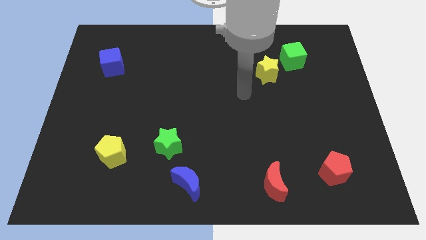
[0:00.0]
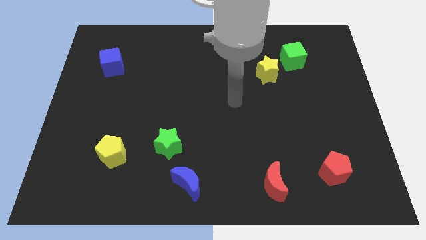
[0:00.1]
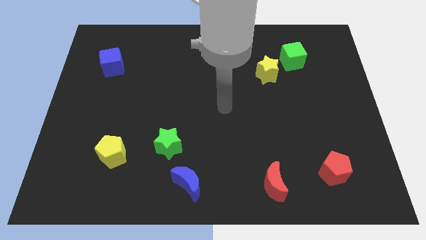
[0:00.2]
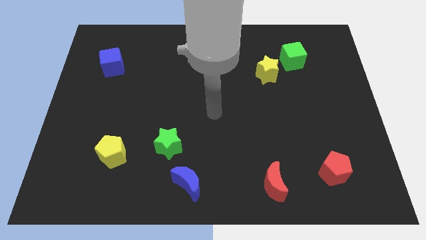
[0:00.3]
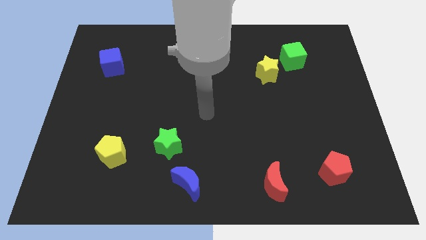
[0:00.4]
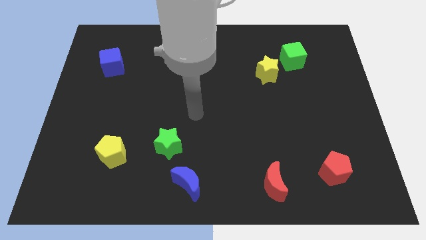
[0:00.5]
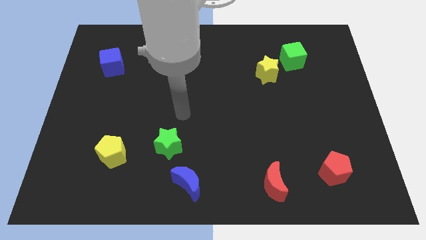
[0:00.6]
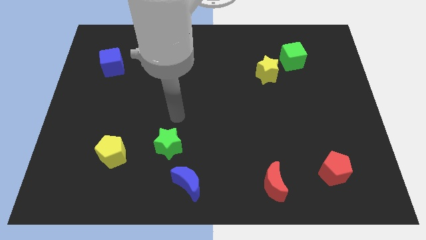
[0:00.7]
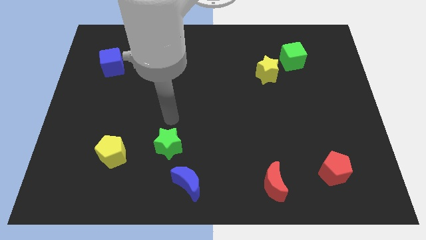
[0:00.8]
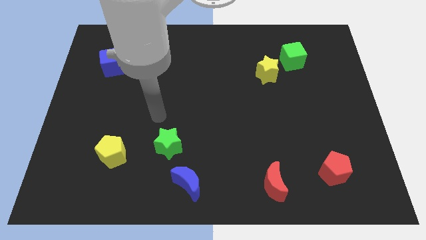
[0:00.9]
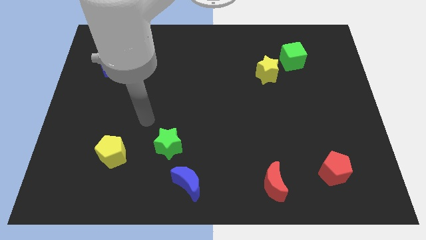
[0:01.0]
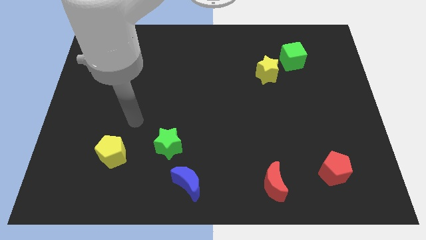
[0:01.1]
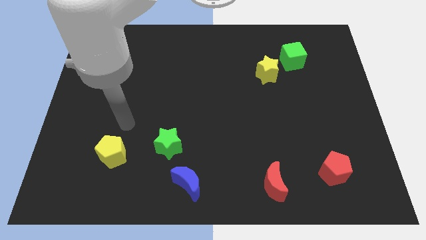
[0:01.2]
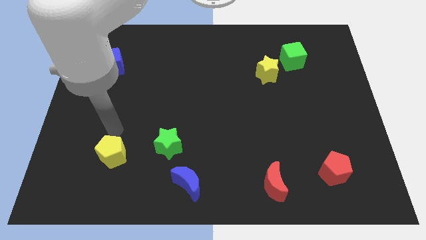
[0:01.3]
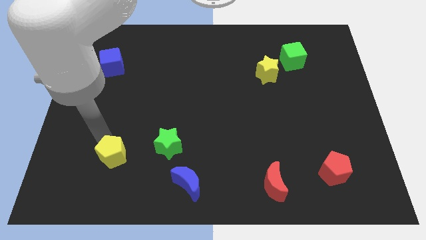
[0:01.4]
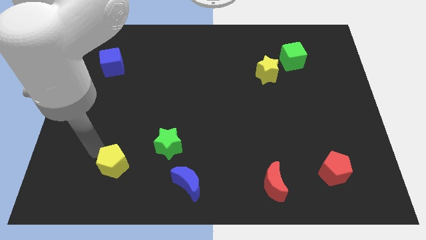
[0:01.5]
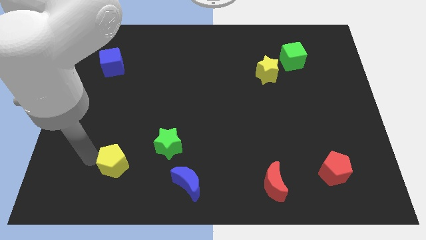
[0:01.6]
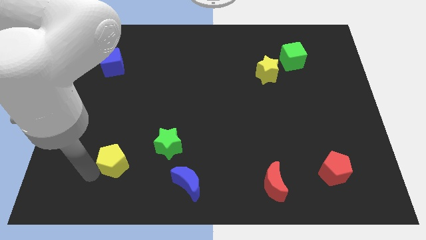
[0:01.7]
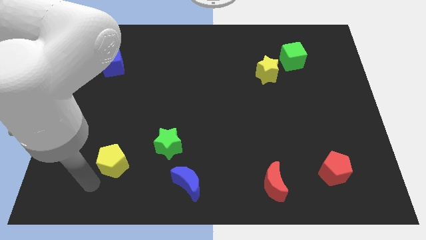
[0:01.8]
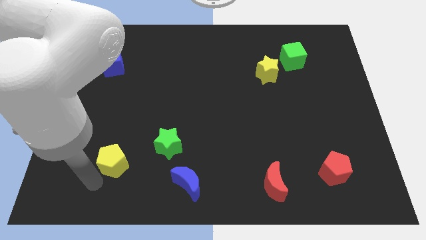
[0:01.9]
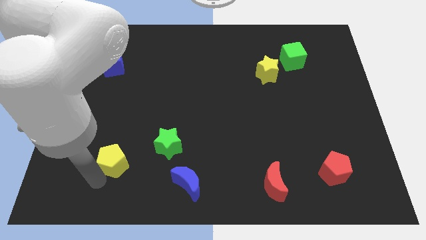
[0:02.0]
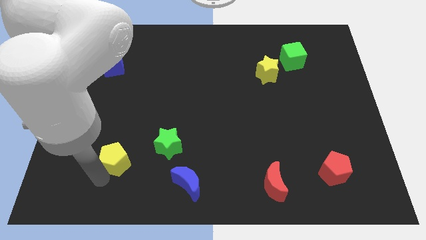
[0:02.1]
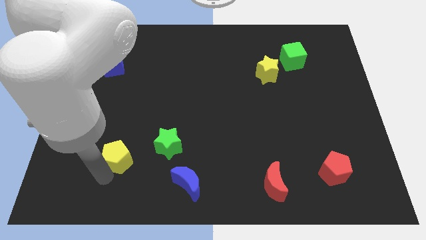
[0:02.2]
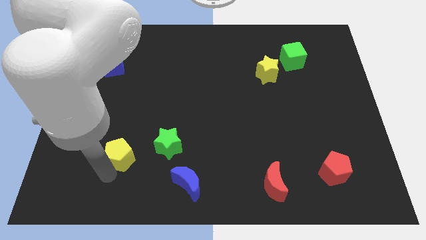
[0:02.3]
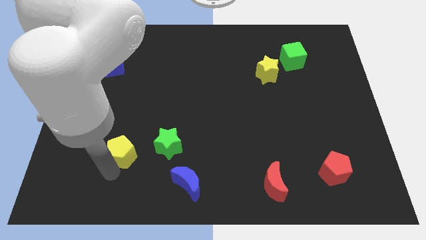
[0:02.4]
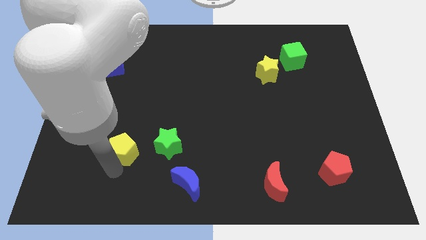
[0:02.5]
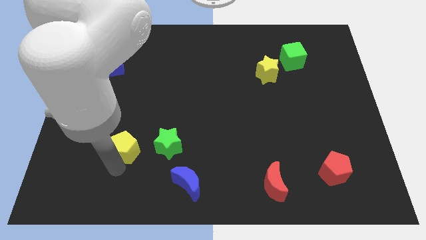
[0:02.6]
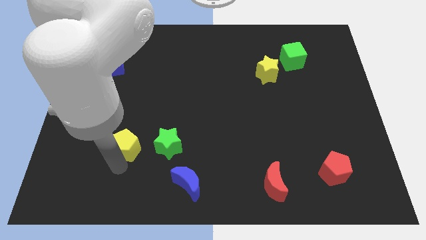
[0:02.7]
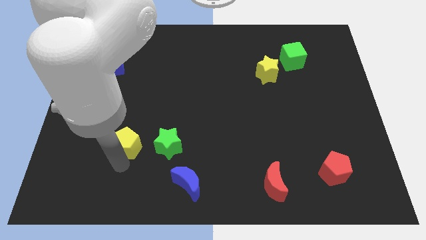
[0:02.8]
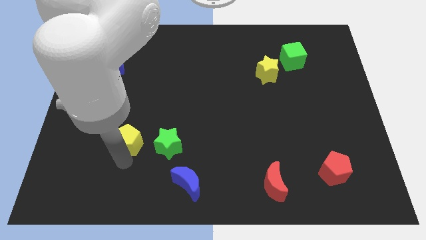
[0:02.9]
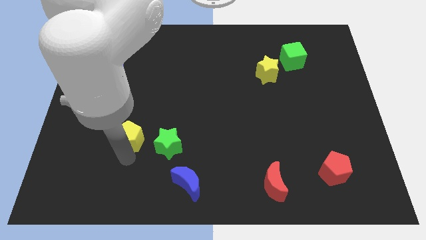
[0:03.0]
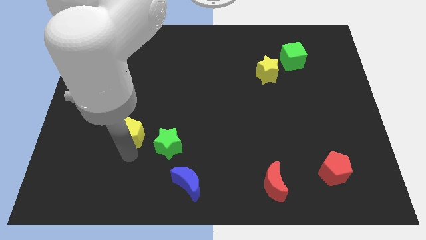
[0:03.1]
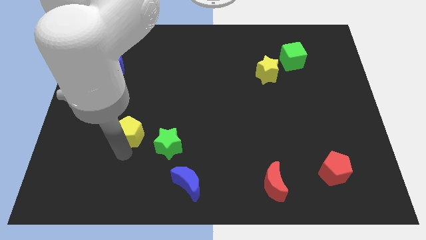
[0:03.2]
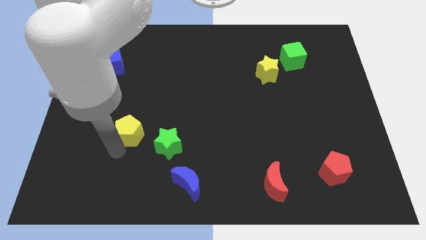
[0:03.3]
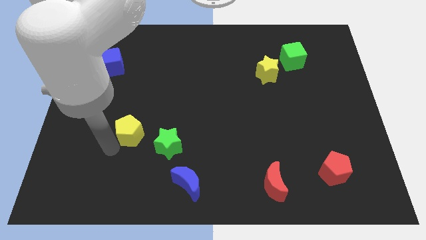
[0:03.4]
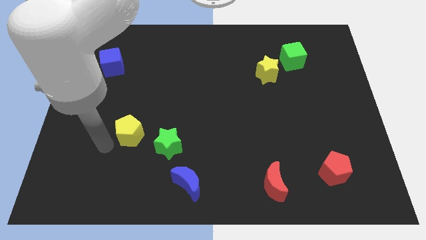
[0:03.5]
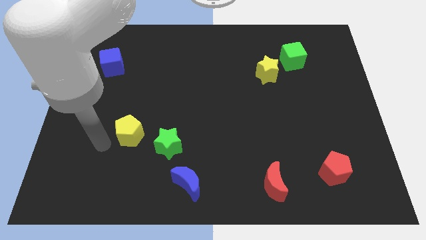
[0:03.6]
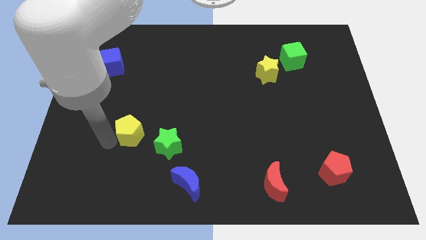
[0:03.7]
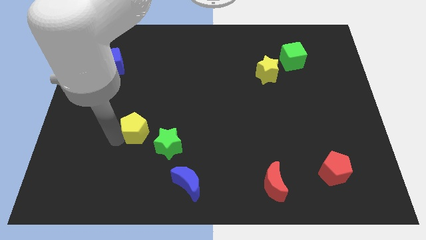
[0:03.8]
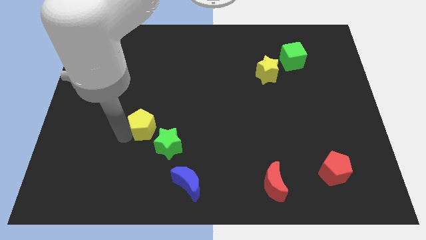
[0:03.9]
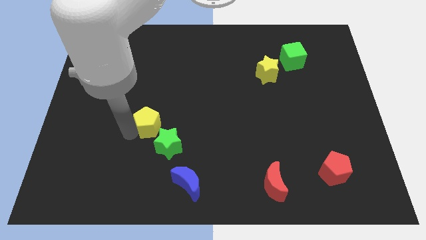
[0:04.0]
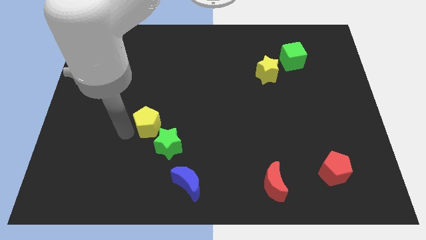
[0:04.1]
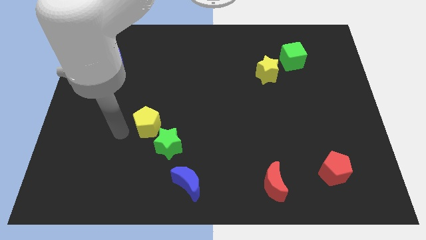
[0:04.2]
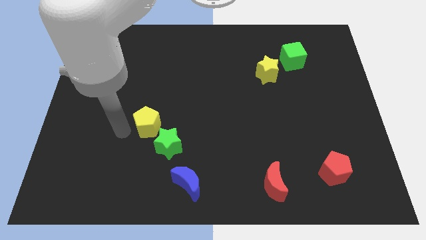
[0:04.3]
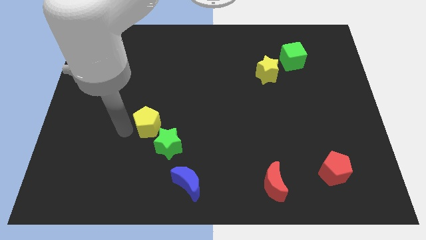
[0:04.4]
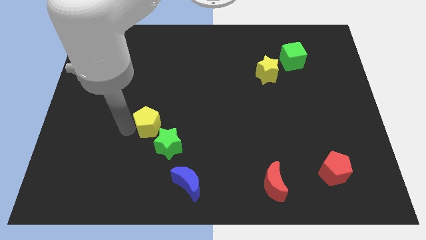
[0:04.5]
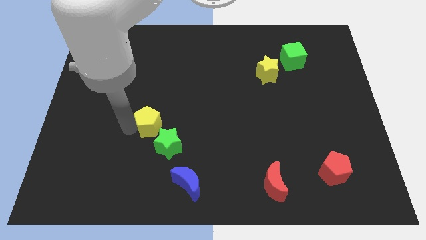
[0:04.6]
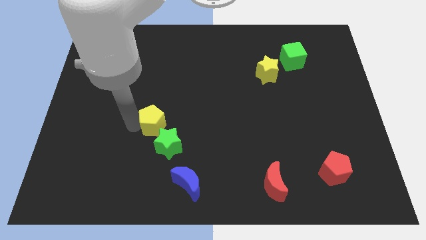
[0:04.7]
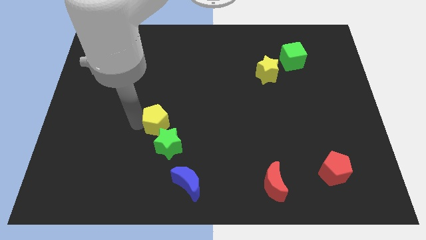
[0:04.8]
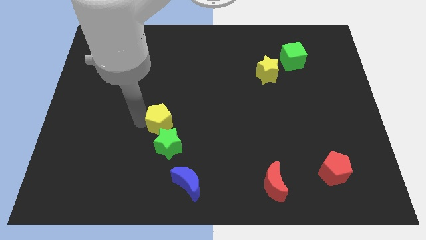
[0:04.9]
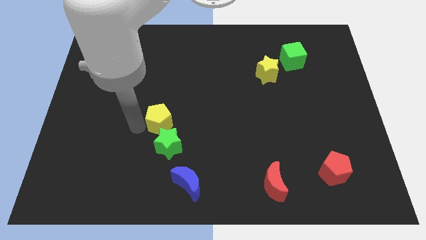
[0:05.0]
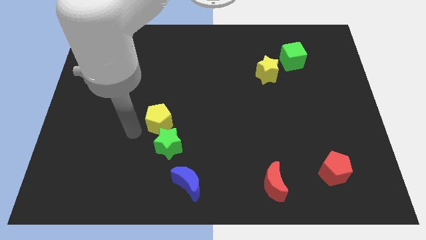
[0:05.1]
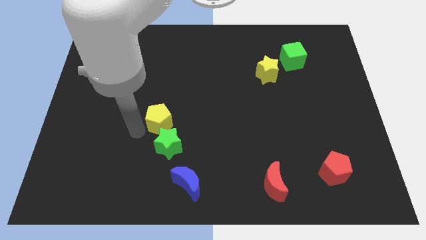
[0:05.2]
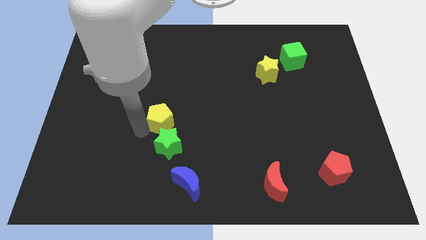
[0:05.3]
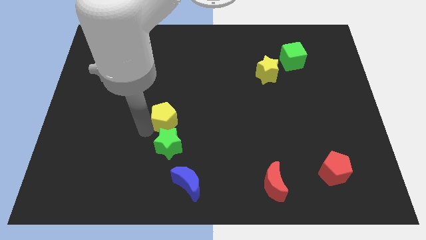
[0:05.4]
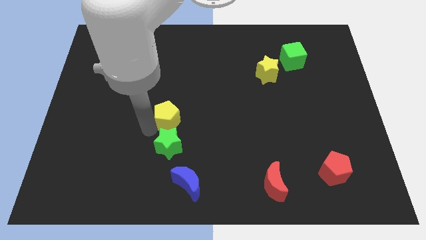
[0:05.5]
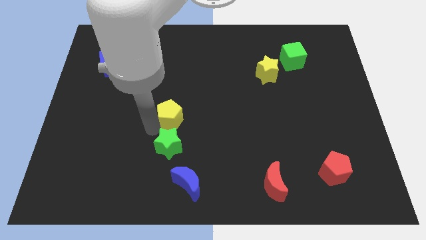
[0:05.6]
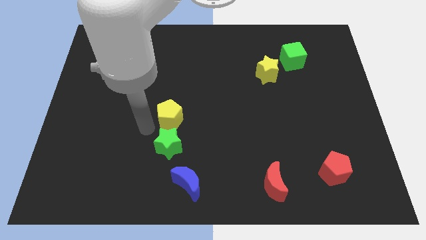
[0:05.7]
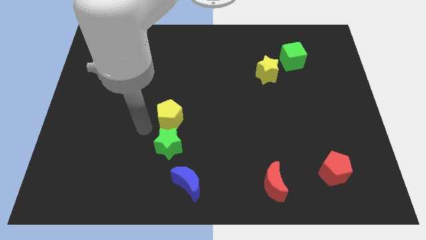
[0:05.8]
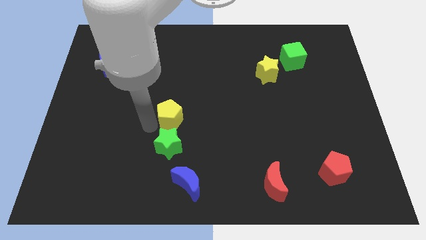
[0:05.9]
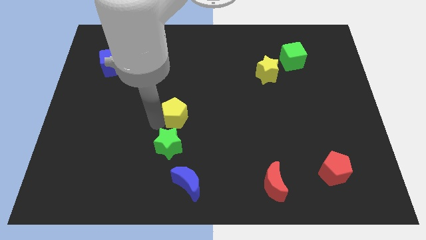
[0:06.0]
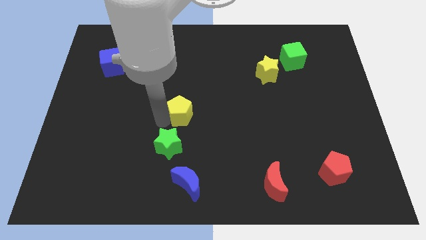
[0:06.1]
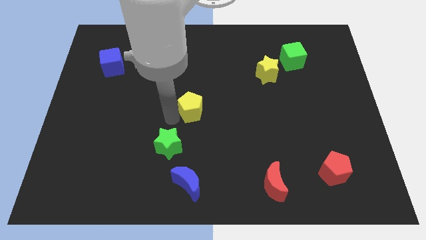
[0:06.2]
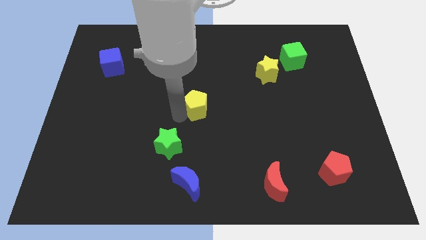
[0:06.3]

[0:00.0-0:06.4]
slide the yellow pentagon diagonally up and to the right

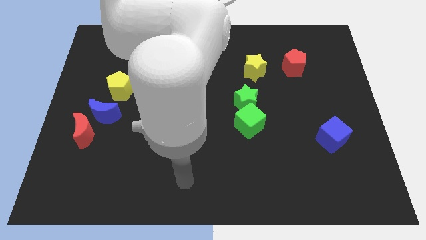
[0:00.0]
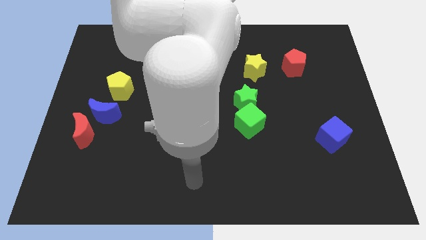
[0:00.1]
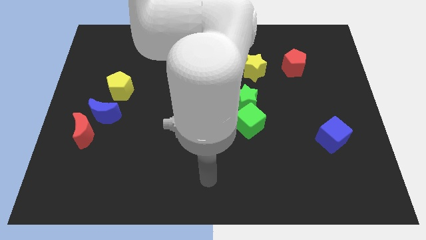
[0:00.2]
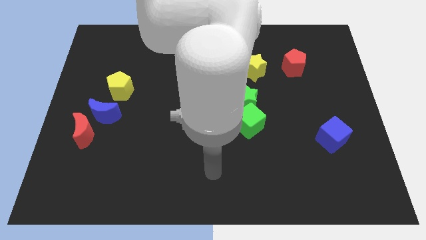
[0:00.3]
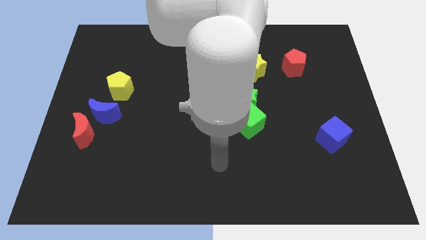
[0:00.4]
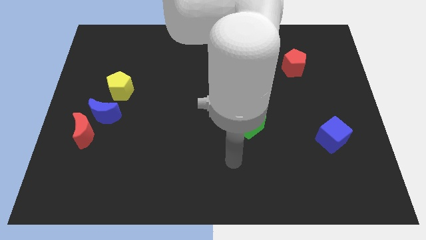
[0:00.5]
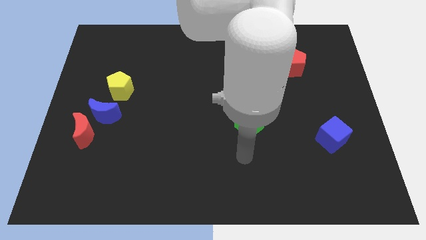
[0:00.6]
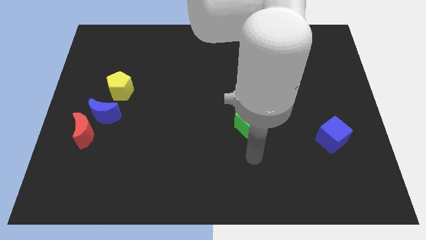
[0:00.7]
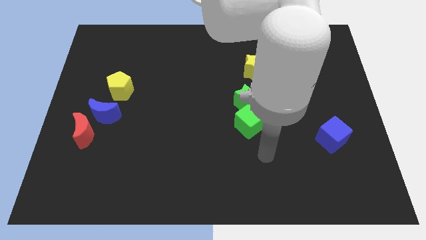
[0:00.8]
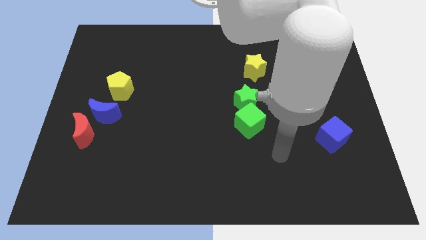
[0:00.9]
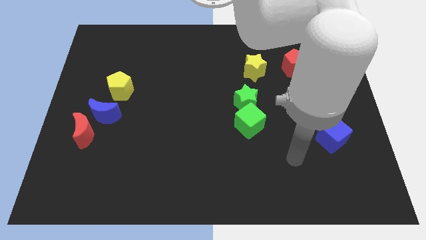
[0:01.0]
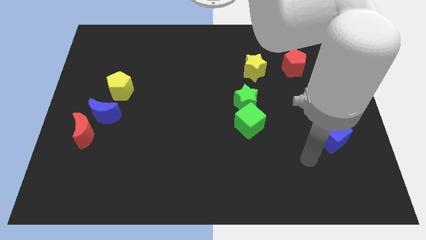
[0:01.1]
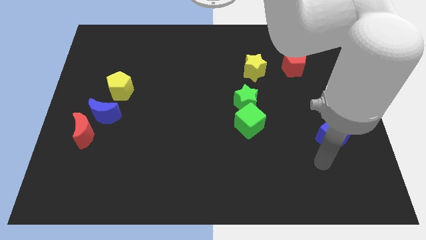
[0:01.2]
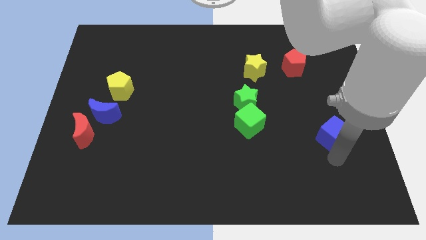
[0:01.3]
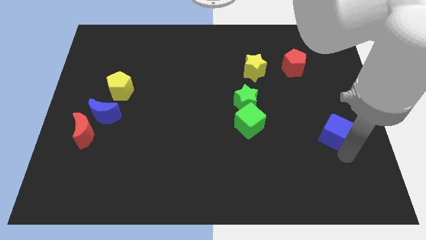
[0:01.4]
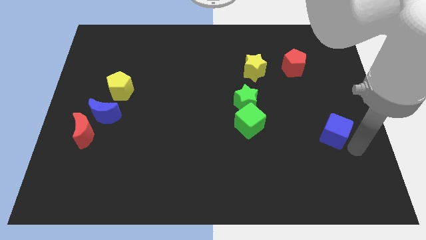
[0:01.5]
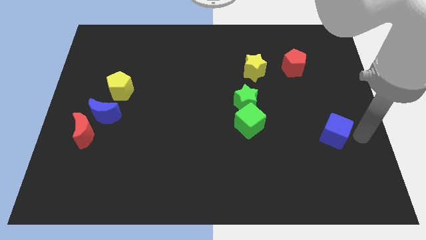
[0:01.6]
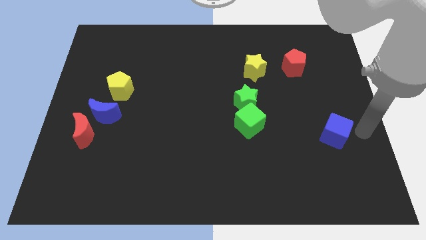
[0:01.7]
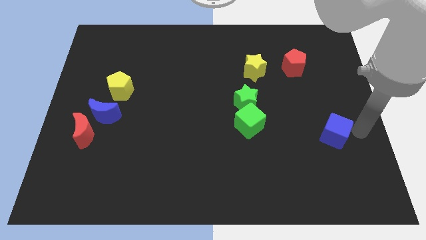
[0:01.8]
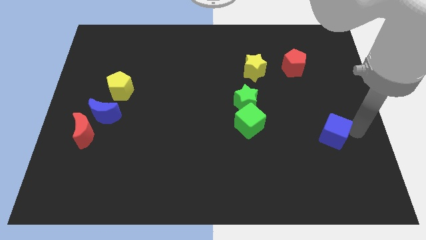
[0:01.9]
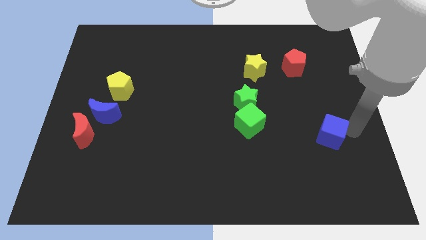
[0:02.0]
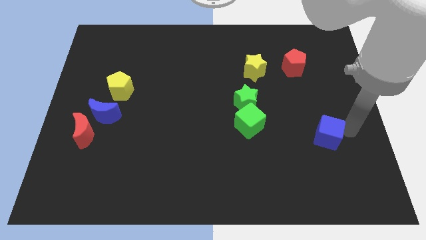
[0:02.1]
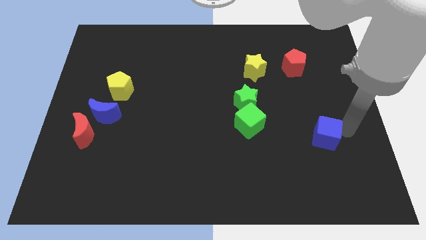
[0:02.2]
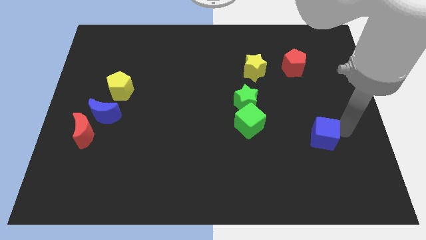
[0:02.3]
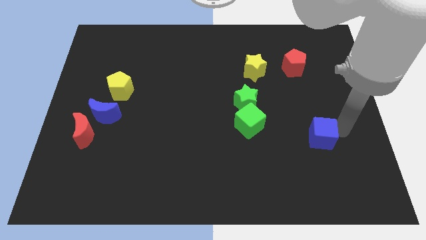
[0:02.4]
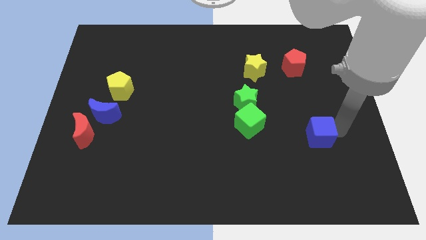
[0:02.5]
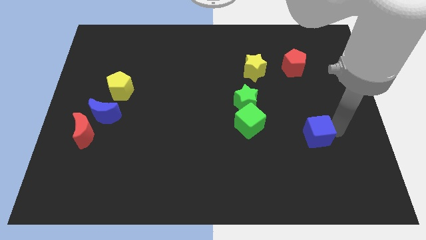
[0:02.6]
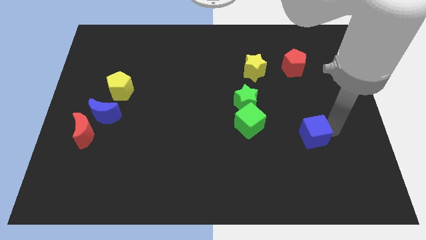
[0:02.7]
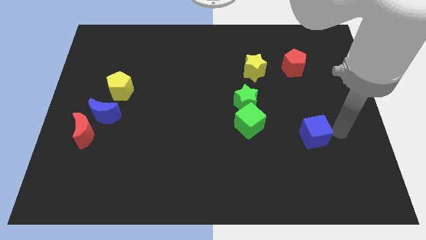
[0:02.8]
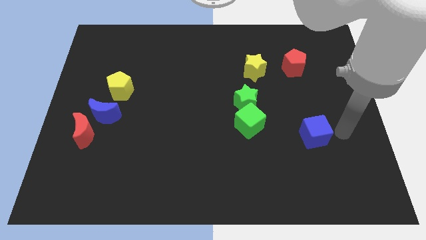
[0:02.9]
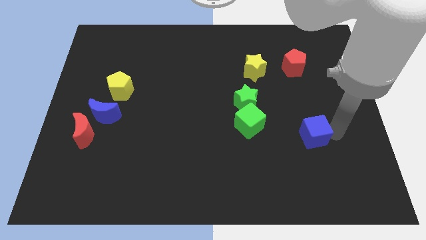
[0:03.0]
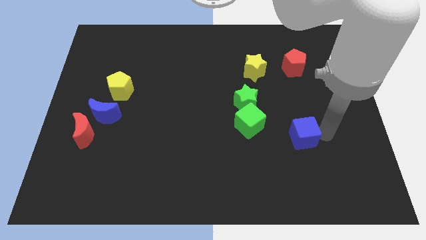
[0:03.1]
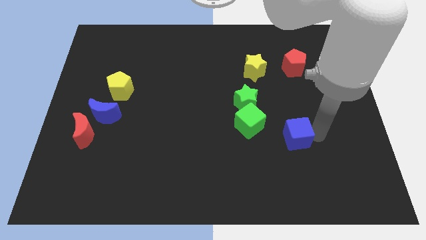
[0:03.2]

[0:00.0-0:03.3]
push the blue cube a little bit to the left
